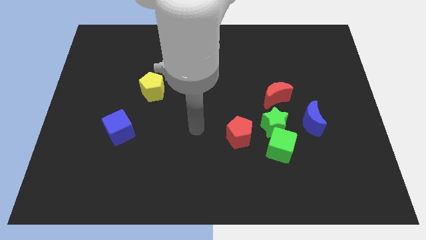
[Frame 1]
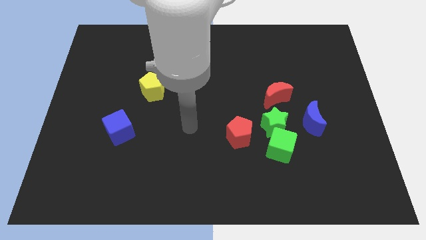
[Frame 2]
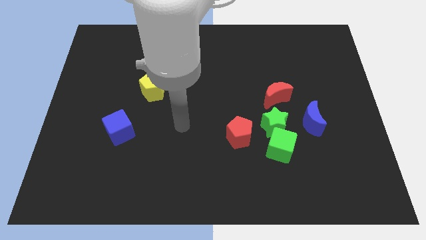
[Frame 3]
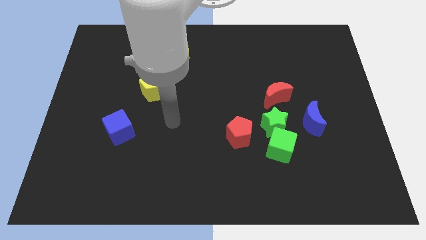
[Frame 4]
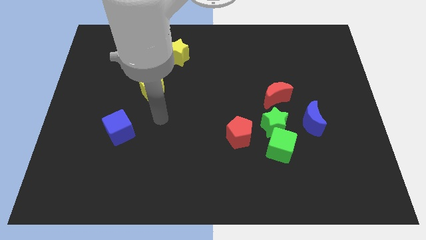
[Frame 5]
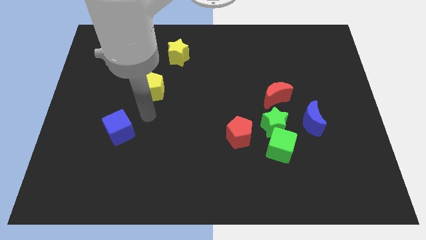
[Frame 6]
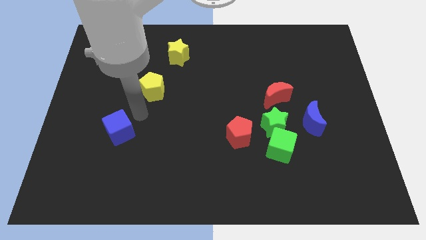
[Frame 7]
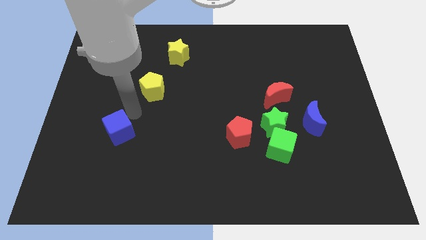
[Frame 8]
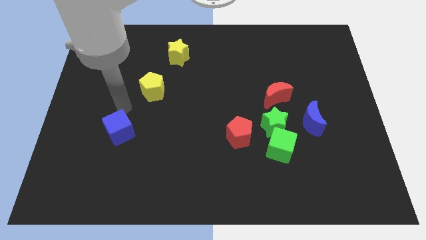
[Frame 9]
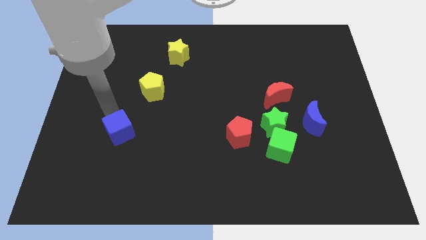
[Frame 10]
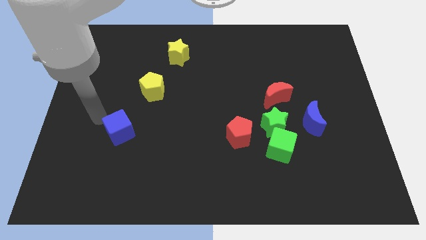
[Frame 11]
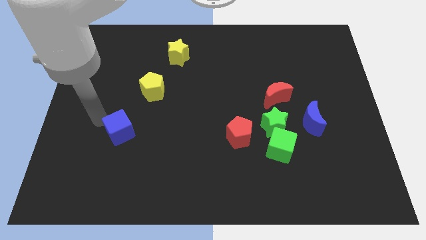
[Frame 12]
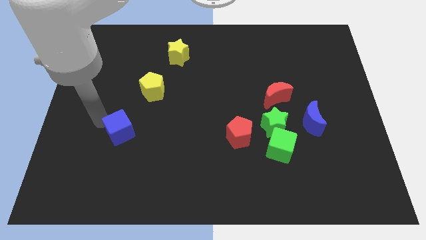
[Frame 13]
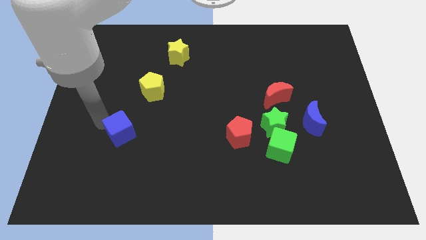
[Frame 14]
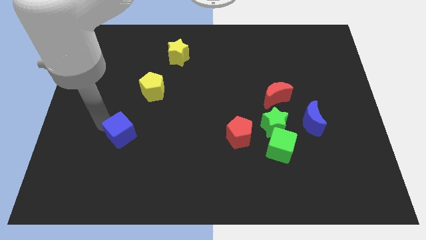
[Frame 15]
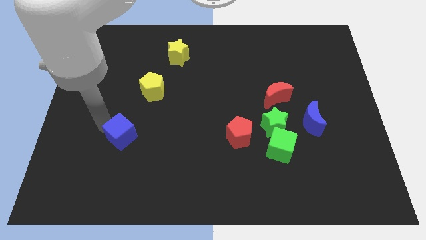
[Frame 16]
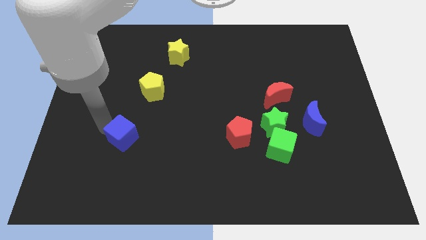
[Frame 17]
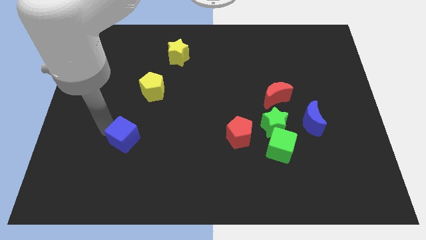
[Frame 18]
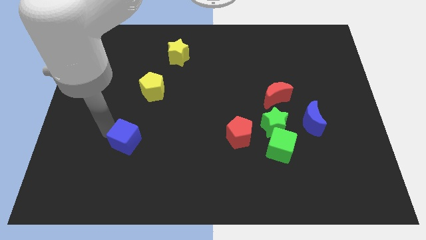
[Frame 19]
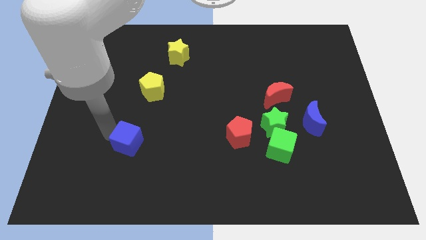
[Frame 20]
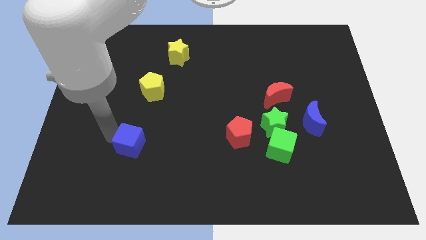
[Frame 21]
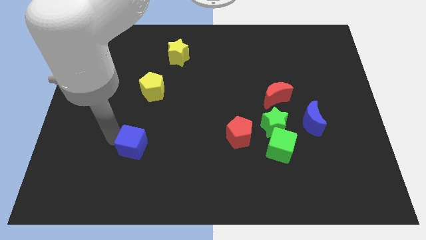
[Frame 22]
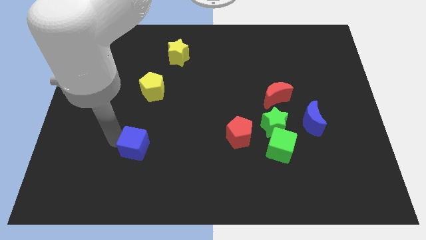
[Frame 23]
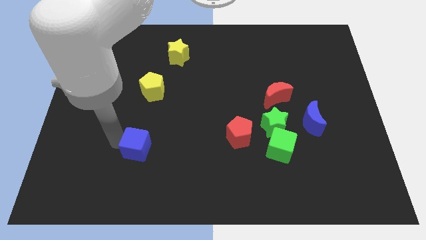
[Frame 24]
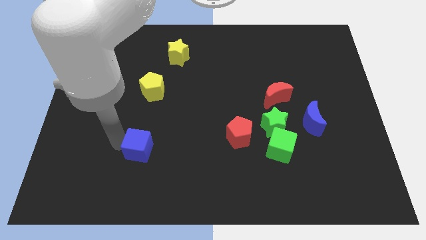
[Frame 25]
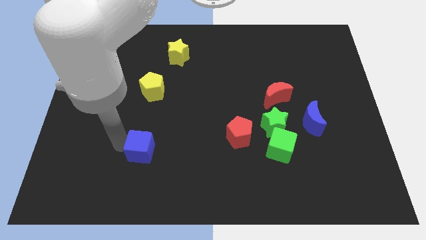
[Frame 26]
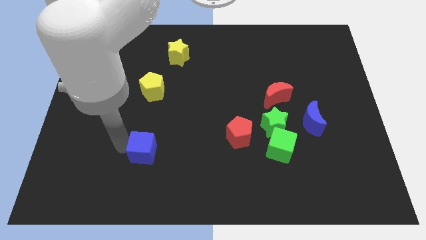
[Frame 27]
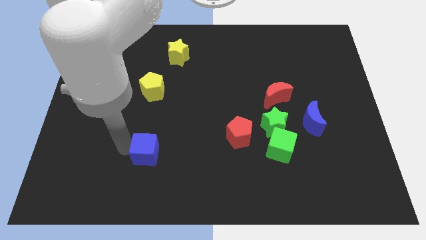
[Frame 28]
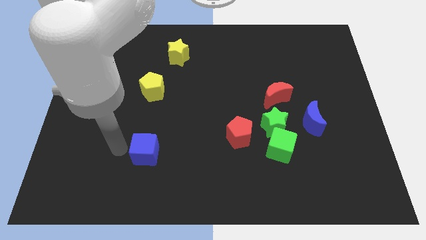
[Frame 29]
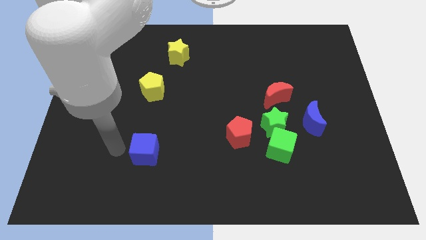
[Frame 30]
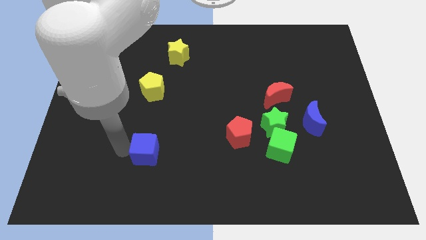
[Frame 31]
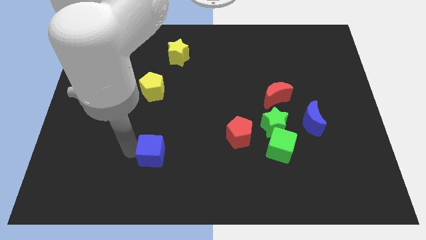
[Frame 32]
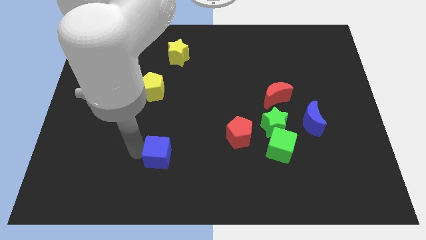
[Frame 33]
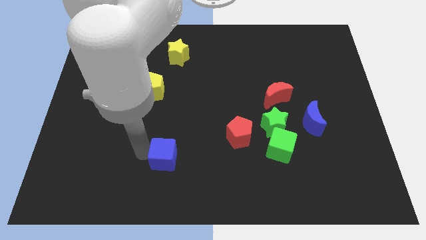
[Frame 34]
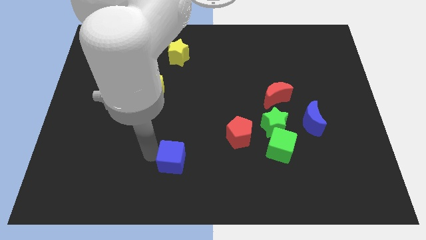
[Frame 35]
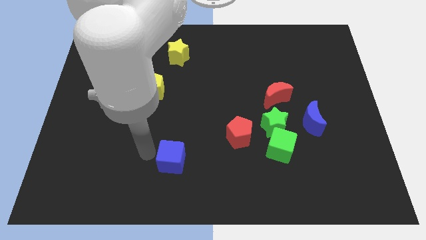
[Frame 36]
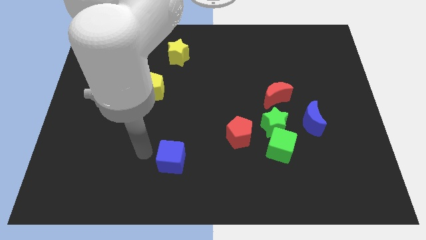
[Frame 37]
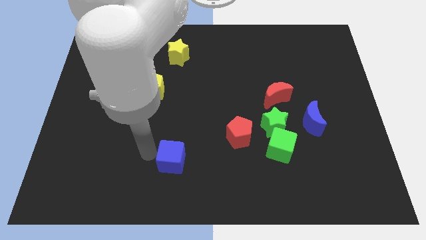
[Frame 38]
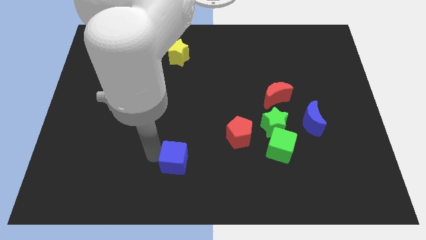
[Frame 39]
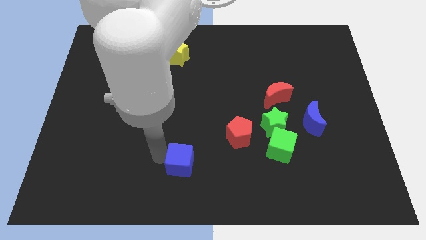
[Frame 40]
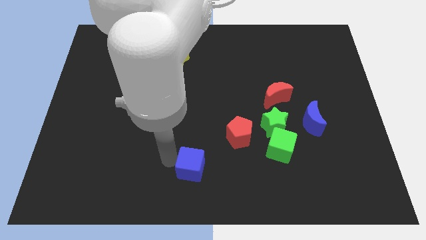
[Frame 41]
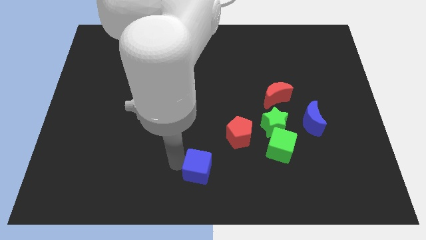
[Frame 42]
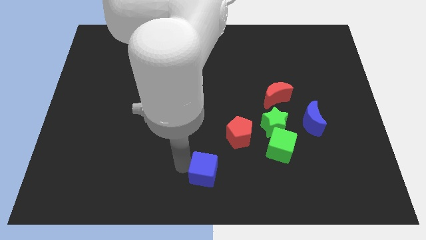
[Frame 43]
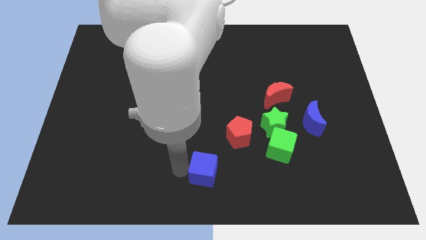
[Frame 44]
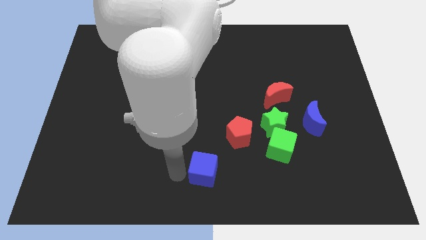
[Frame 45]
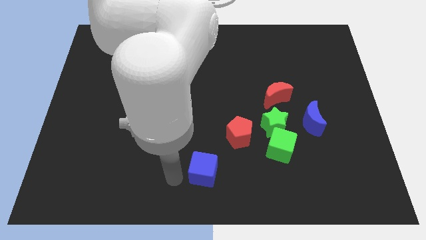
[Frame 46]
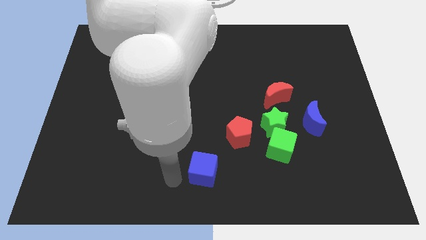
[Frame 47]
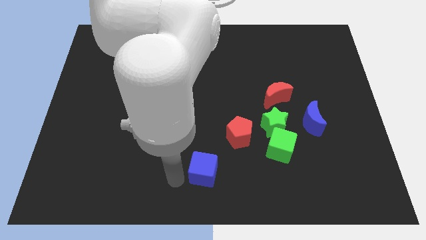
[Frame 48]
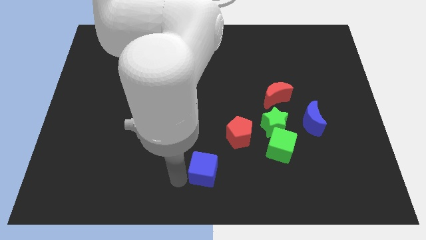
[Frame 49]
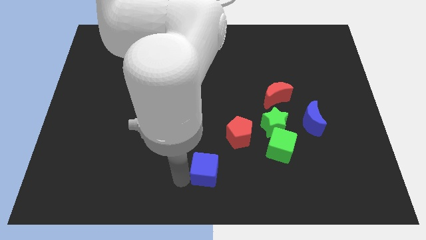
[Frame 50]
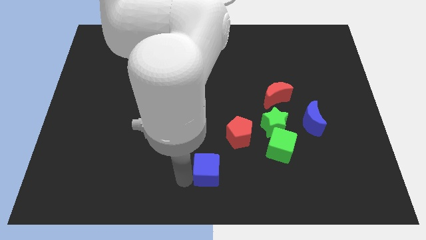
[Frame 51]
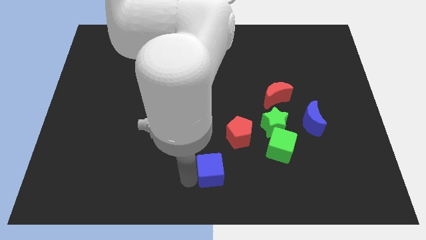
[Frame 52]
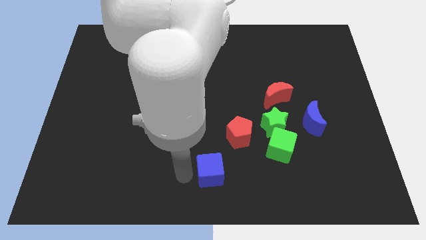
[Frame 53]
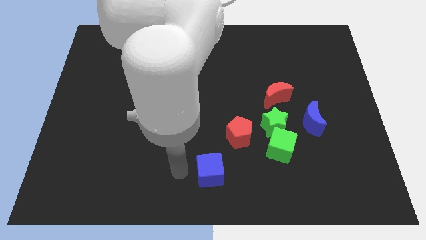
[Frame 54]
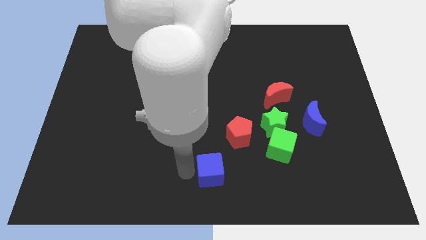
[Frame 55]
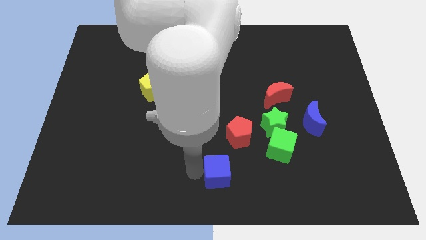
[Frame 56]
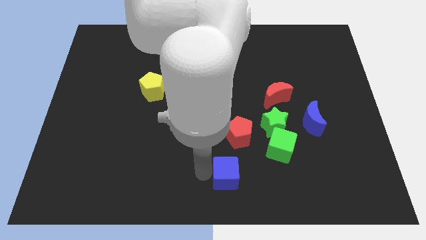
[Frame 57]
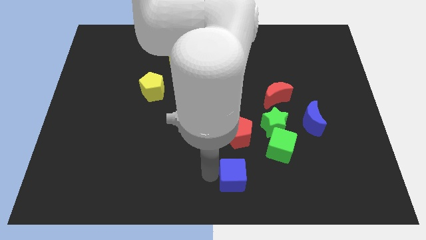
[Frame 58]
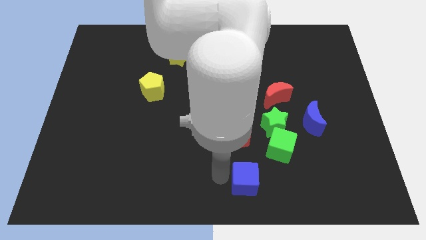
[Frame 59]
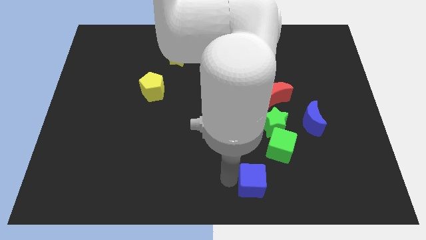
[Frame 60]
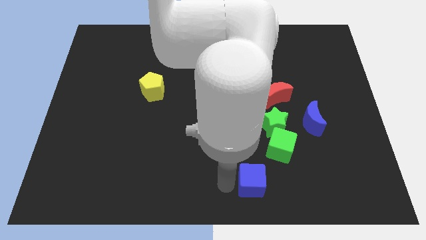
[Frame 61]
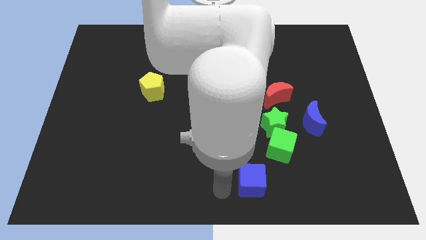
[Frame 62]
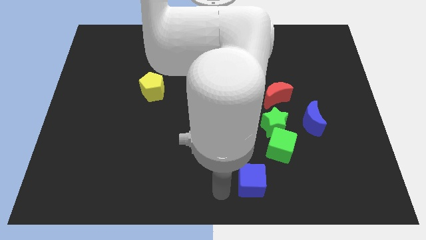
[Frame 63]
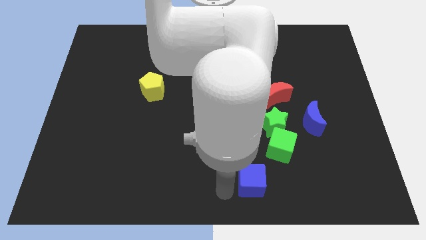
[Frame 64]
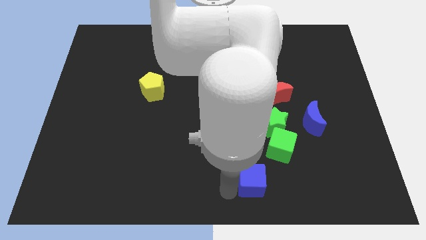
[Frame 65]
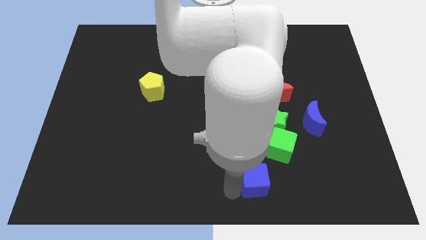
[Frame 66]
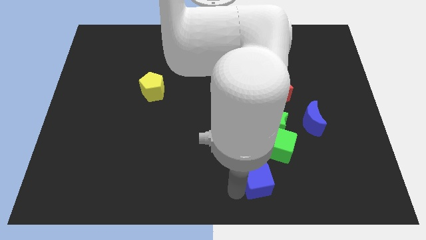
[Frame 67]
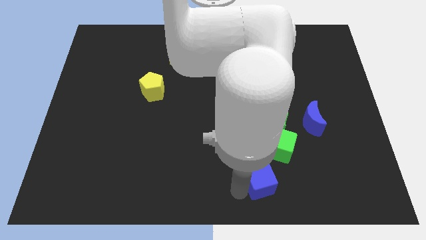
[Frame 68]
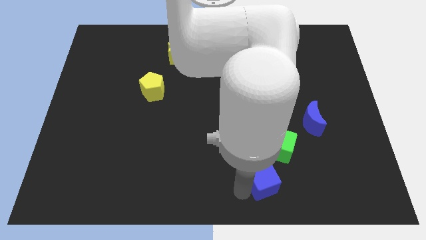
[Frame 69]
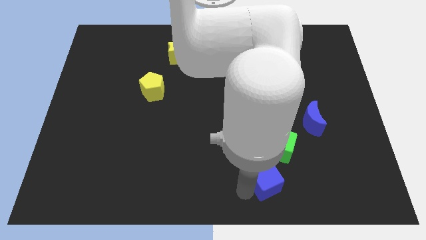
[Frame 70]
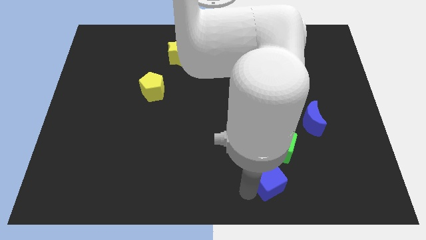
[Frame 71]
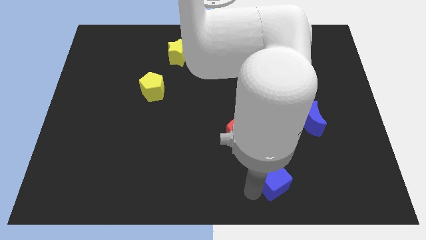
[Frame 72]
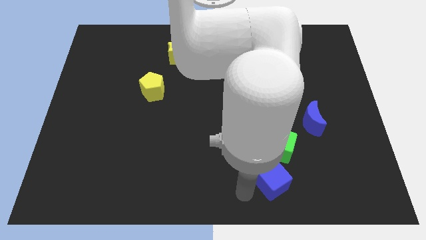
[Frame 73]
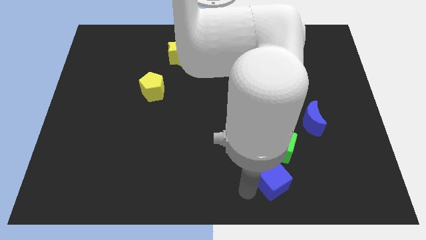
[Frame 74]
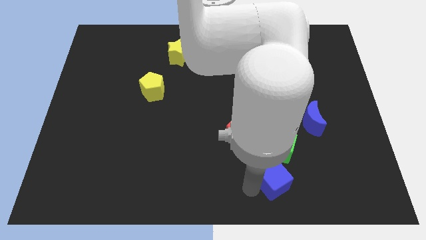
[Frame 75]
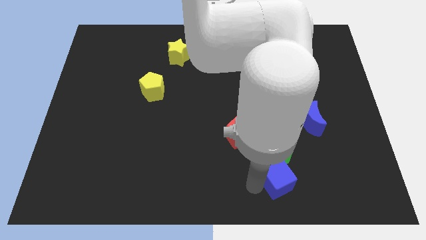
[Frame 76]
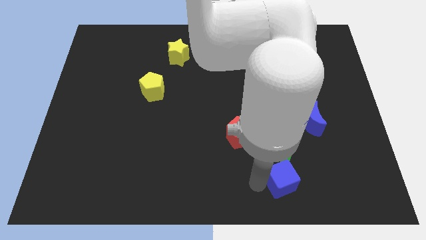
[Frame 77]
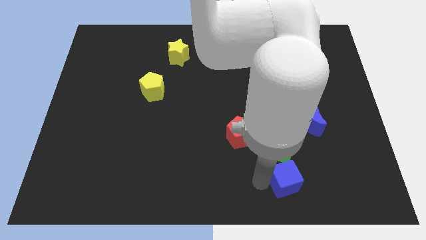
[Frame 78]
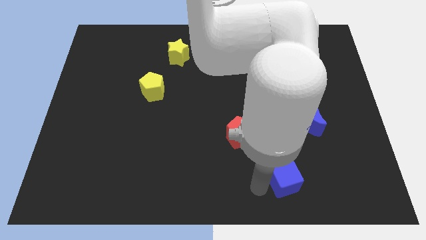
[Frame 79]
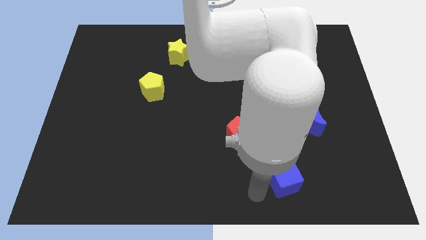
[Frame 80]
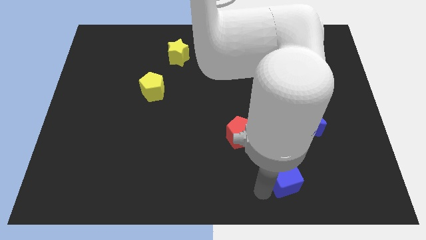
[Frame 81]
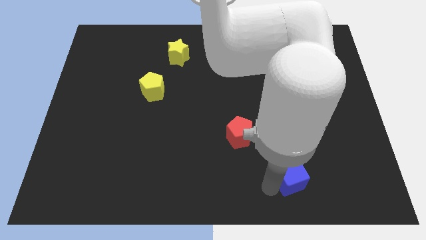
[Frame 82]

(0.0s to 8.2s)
move the blue cube to the bottom right side of the green cube
